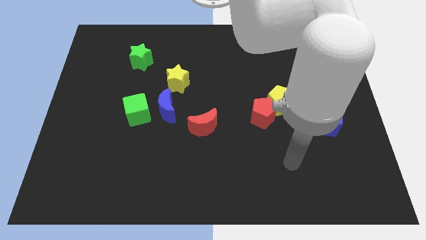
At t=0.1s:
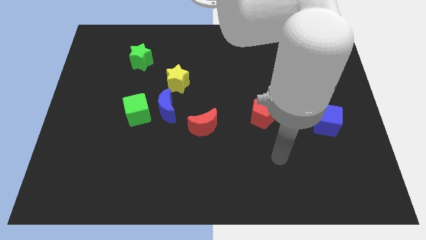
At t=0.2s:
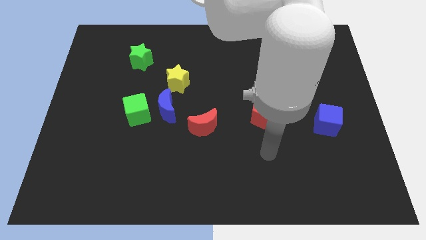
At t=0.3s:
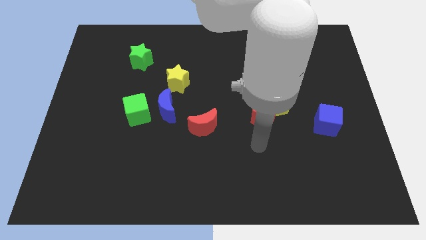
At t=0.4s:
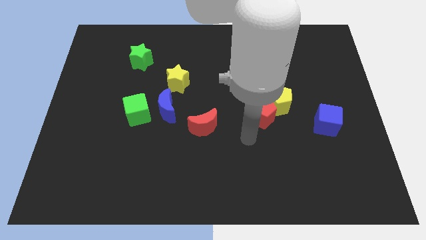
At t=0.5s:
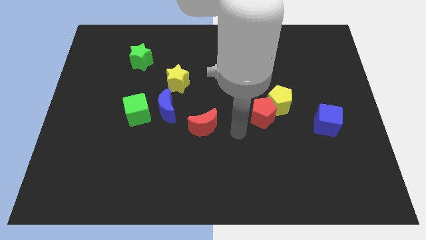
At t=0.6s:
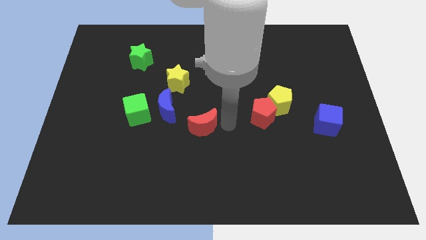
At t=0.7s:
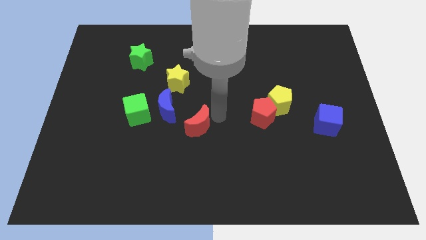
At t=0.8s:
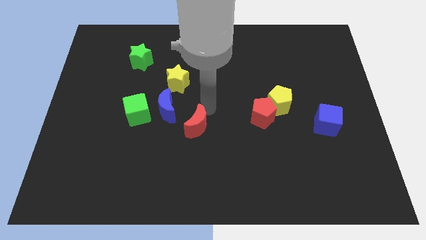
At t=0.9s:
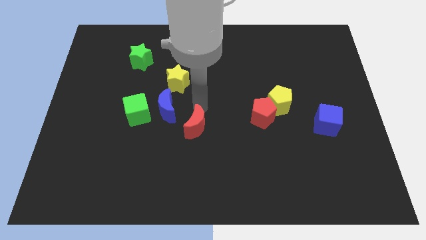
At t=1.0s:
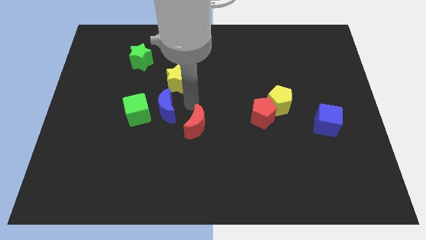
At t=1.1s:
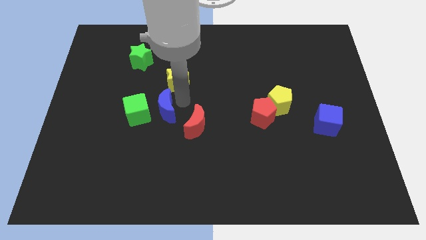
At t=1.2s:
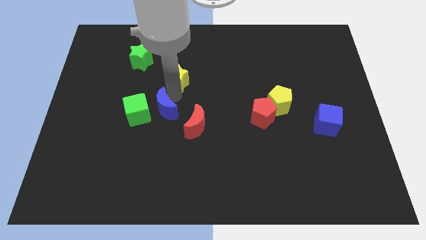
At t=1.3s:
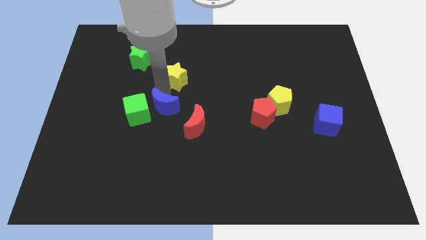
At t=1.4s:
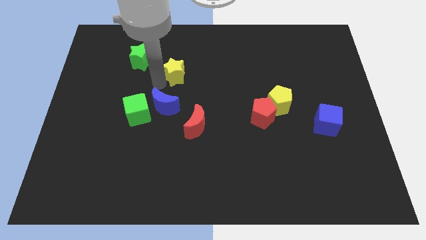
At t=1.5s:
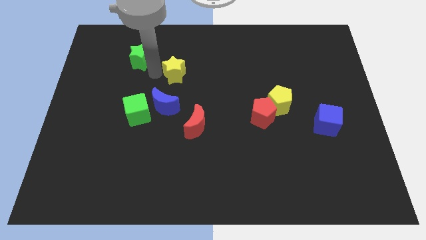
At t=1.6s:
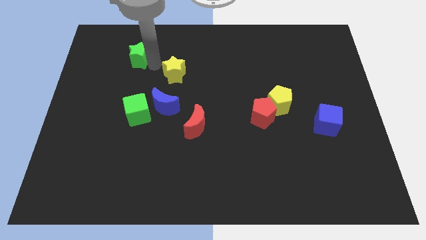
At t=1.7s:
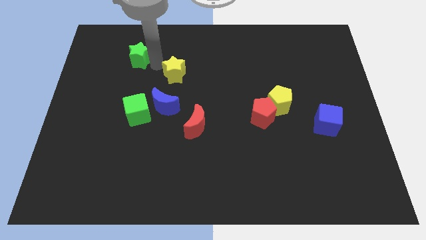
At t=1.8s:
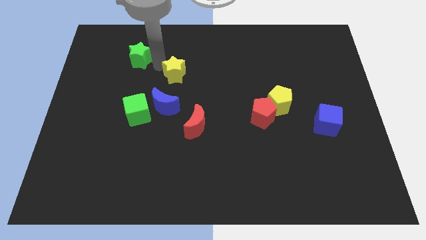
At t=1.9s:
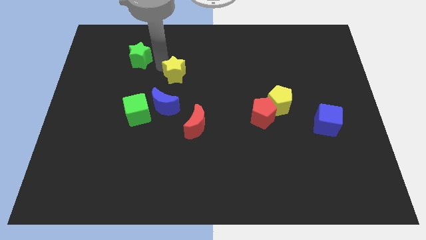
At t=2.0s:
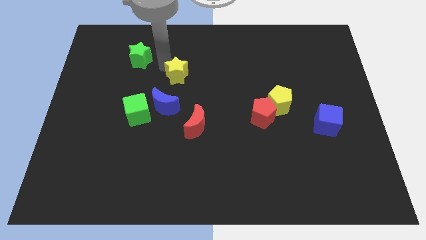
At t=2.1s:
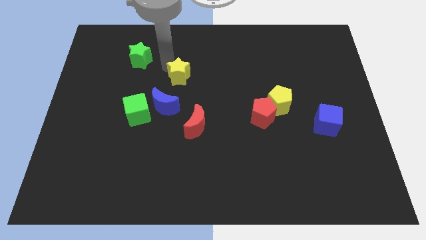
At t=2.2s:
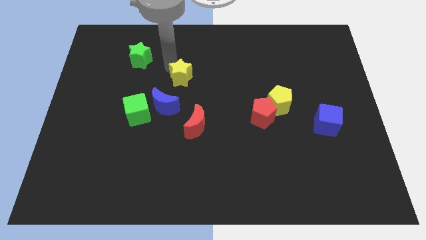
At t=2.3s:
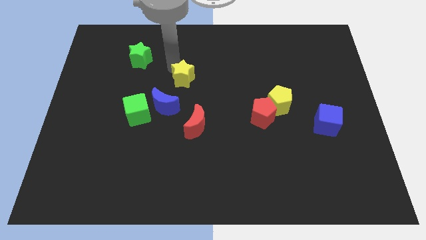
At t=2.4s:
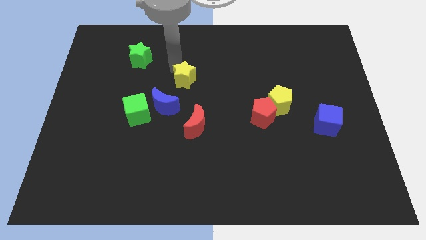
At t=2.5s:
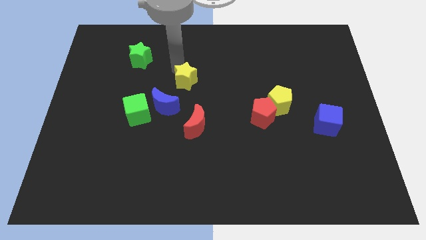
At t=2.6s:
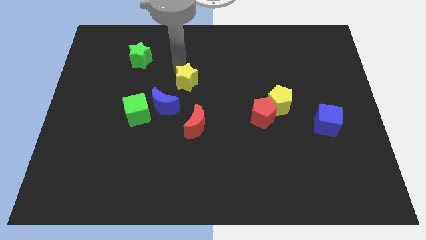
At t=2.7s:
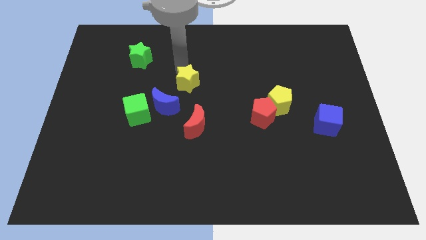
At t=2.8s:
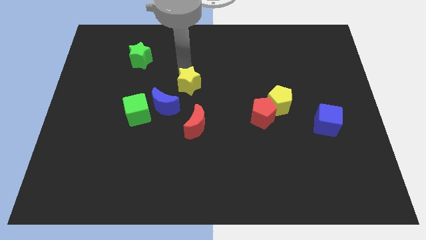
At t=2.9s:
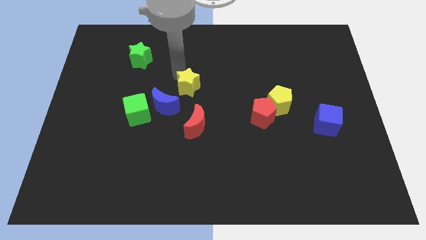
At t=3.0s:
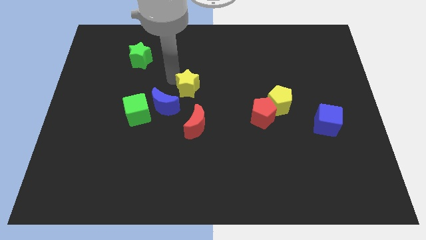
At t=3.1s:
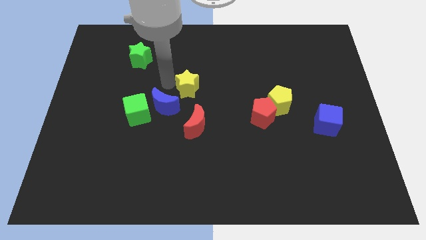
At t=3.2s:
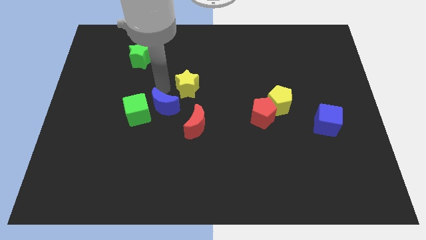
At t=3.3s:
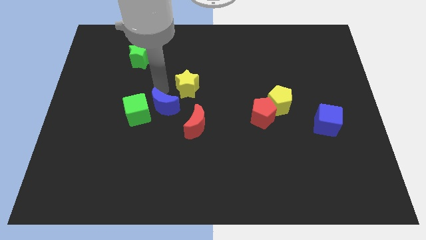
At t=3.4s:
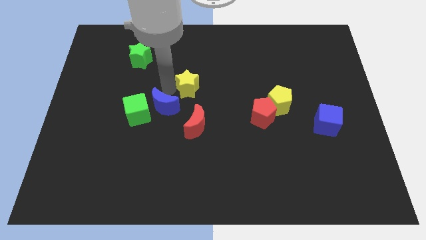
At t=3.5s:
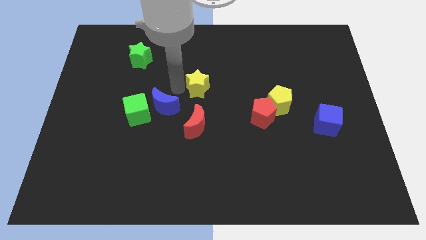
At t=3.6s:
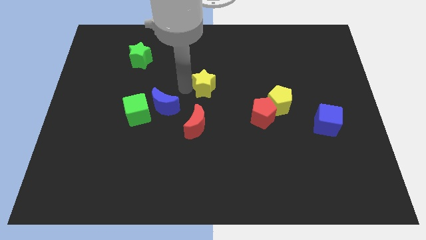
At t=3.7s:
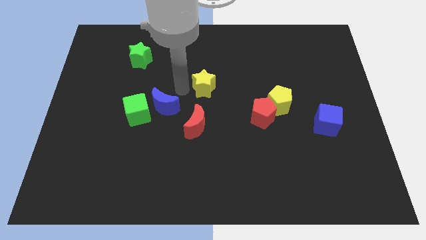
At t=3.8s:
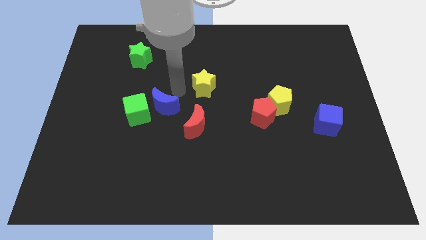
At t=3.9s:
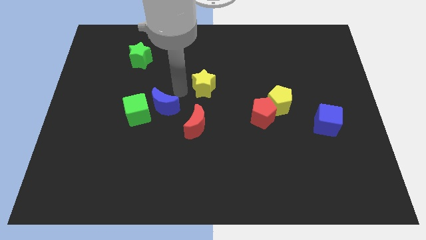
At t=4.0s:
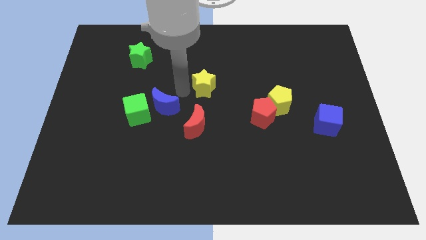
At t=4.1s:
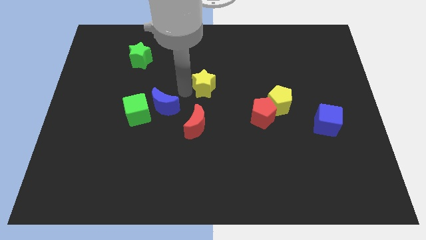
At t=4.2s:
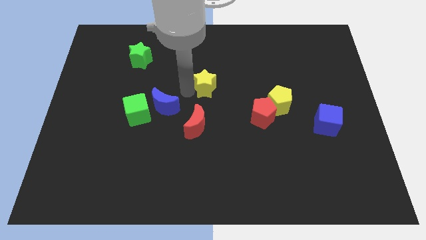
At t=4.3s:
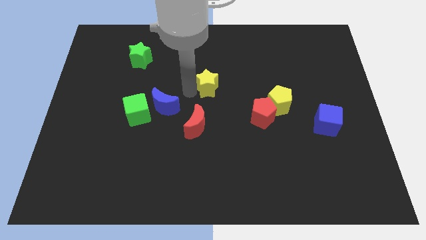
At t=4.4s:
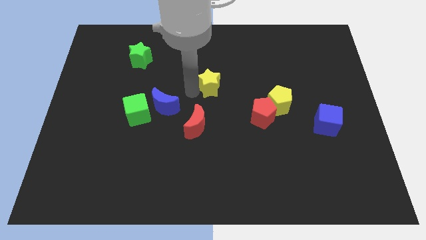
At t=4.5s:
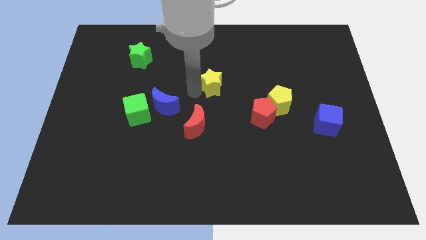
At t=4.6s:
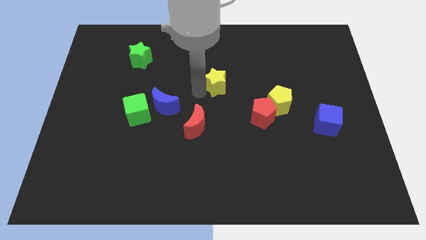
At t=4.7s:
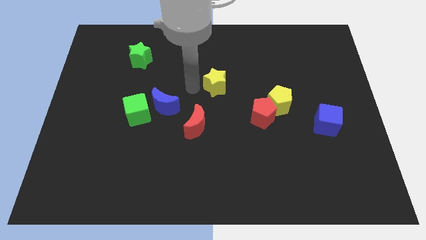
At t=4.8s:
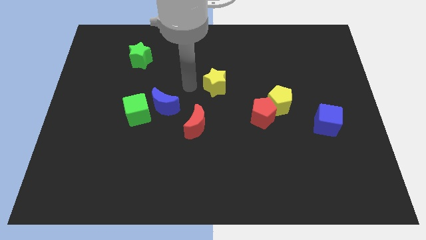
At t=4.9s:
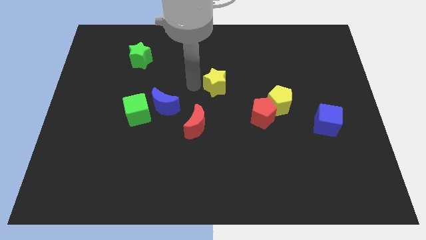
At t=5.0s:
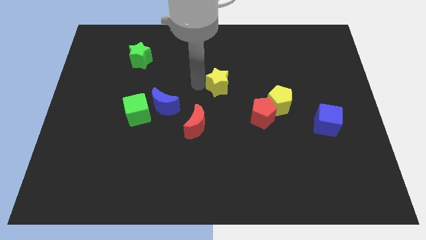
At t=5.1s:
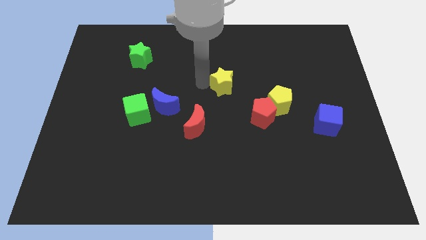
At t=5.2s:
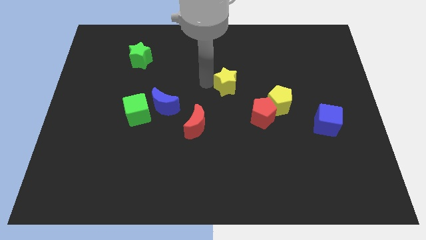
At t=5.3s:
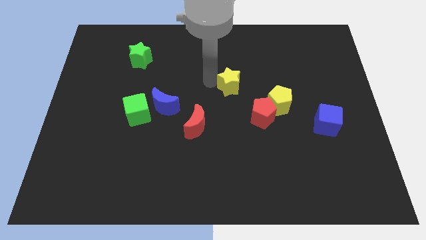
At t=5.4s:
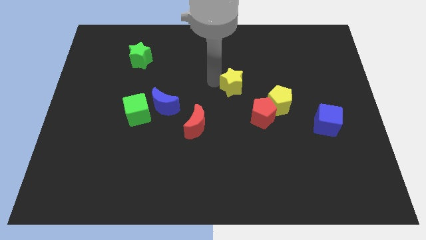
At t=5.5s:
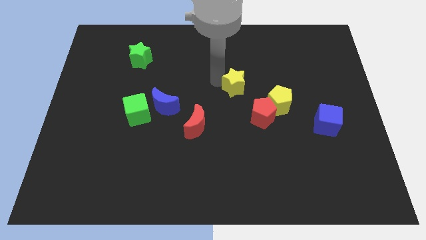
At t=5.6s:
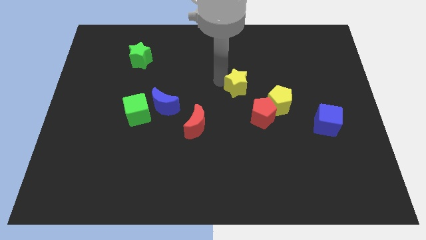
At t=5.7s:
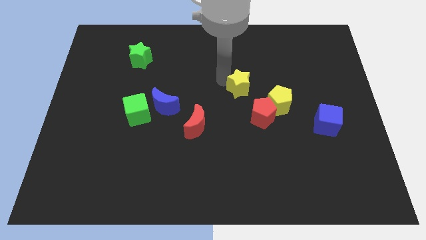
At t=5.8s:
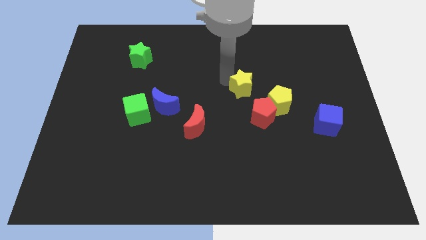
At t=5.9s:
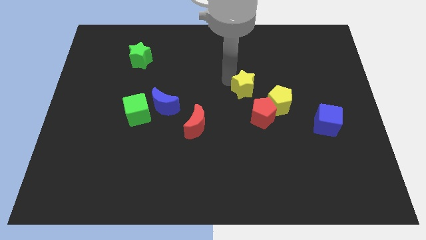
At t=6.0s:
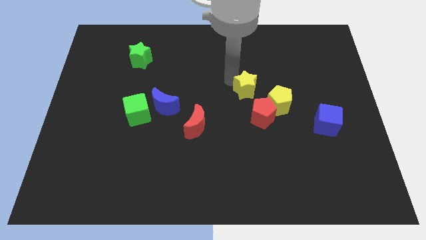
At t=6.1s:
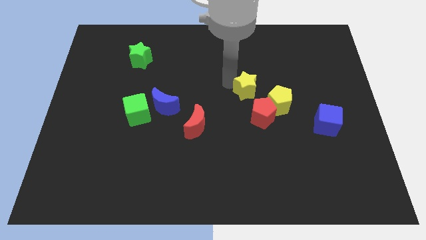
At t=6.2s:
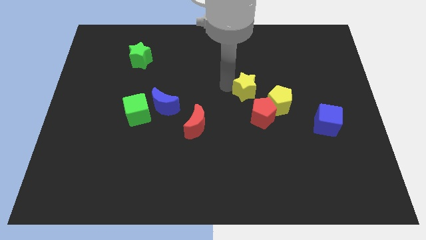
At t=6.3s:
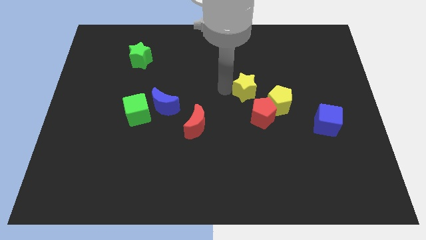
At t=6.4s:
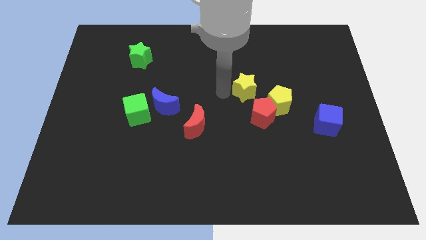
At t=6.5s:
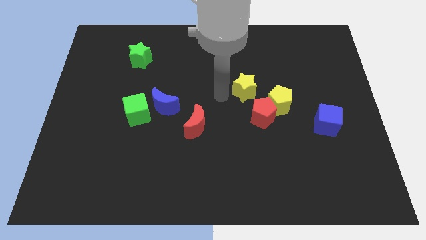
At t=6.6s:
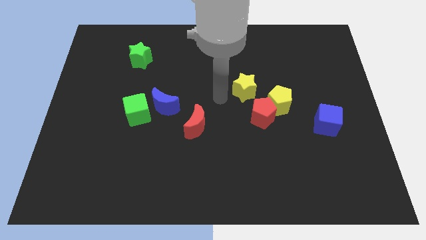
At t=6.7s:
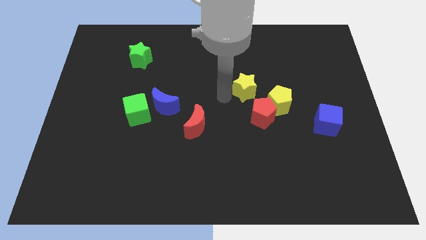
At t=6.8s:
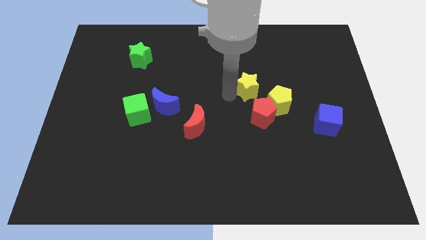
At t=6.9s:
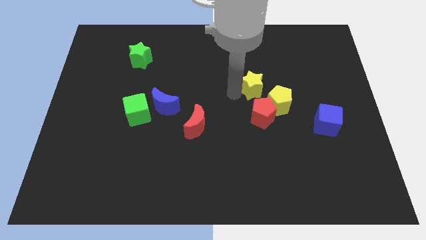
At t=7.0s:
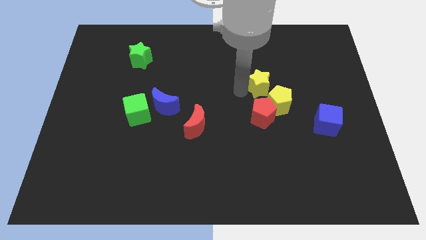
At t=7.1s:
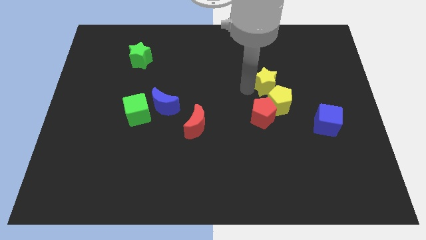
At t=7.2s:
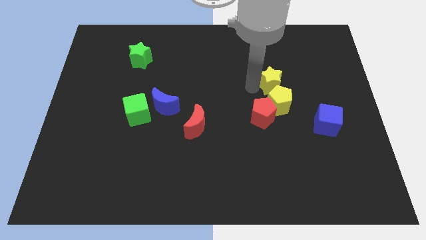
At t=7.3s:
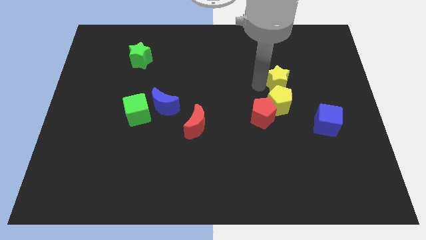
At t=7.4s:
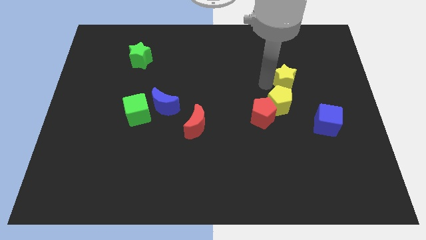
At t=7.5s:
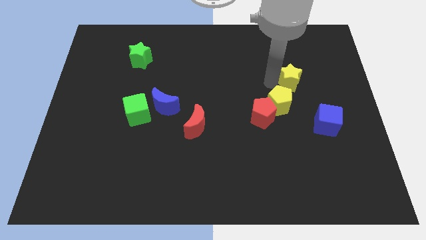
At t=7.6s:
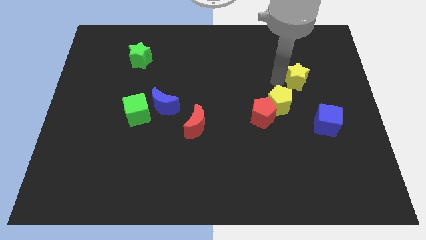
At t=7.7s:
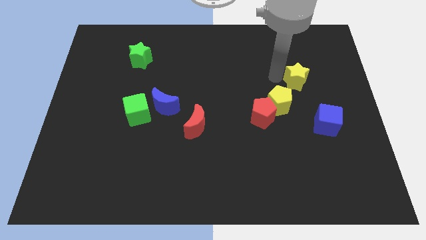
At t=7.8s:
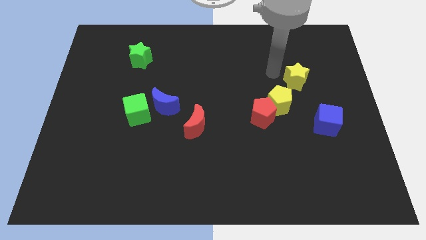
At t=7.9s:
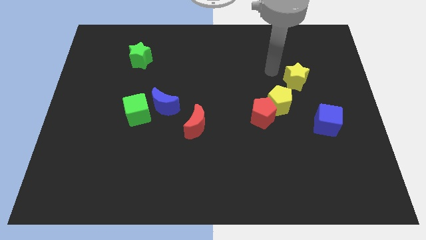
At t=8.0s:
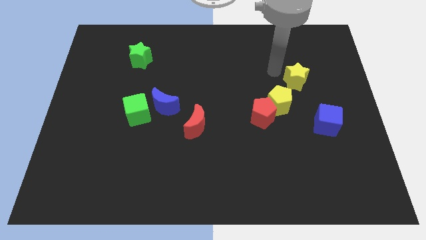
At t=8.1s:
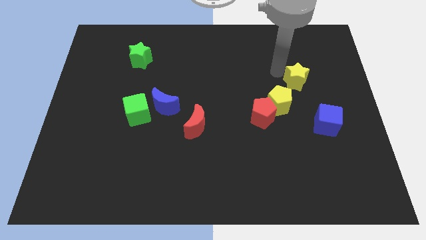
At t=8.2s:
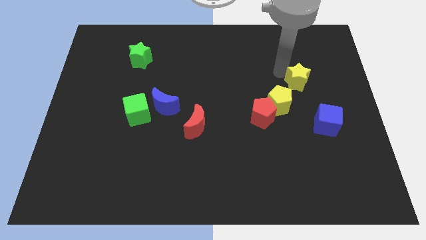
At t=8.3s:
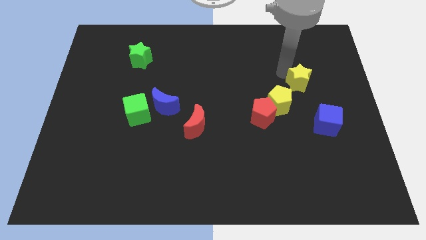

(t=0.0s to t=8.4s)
put the yellow star to the top side of the blue cube
